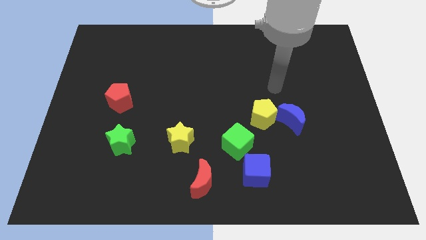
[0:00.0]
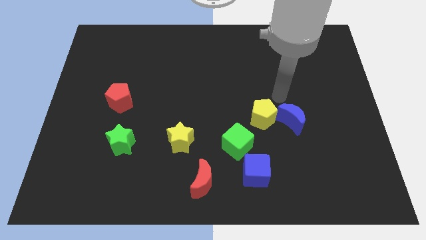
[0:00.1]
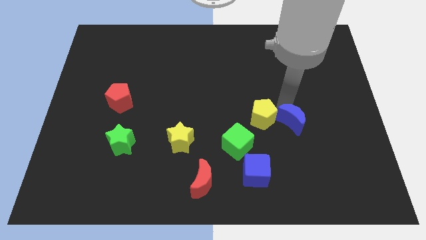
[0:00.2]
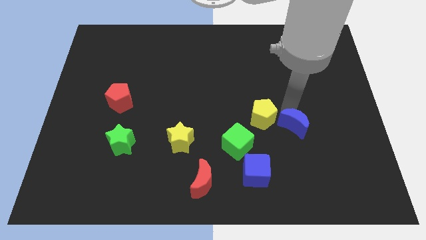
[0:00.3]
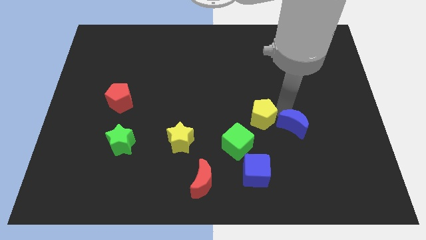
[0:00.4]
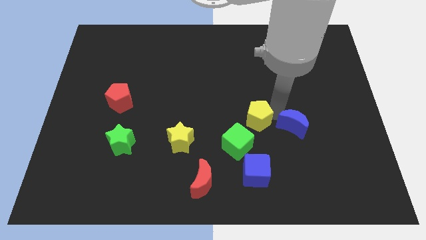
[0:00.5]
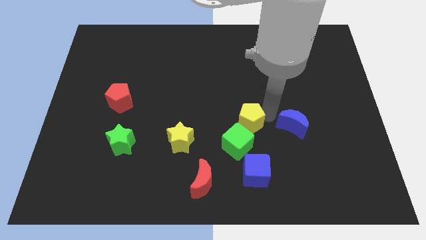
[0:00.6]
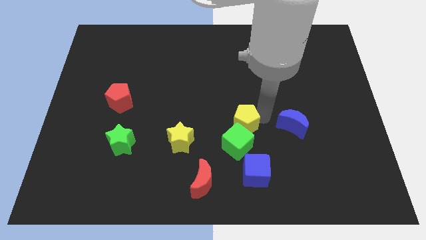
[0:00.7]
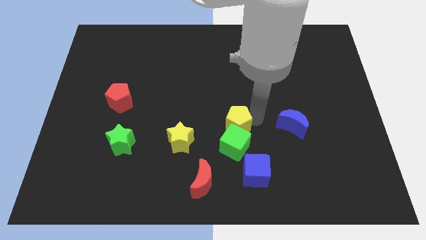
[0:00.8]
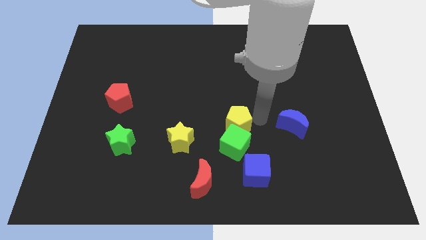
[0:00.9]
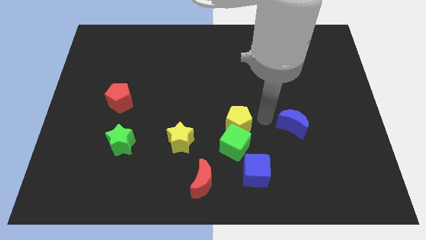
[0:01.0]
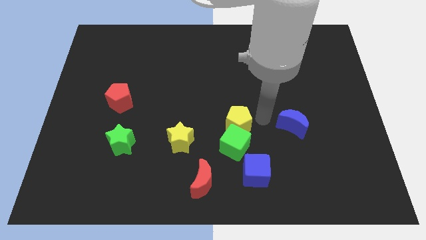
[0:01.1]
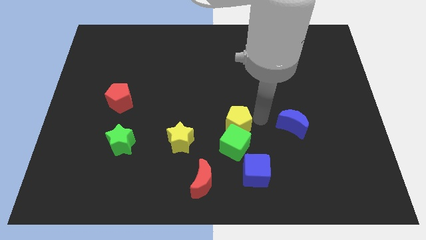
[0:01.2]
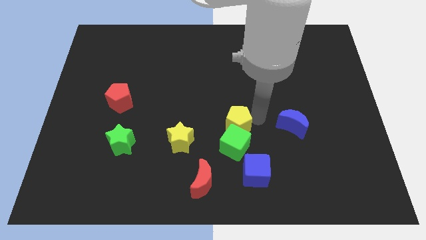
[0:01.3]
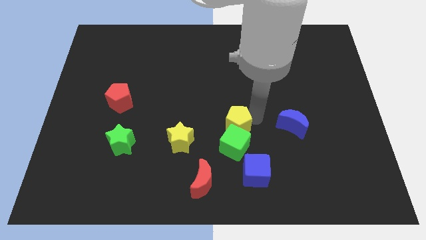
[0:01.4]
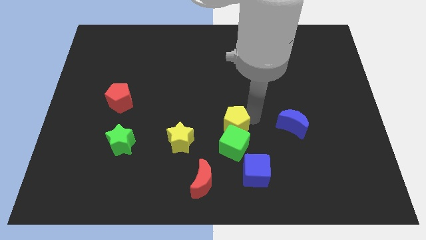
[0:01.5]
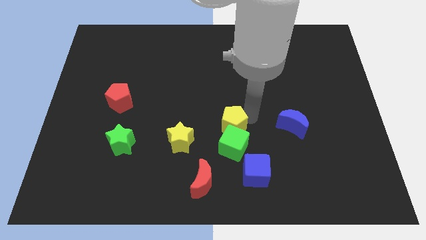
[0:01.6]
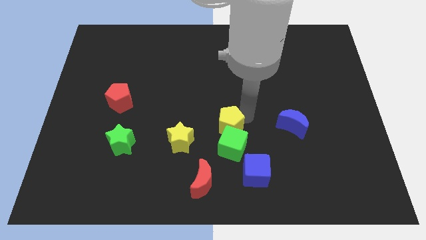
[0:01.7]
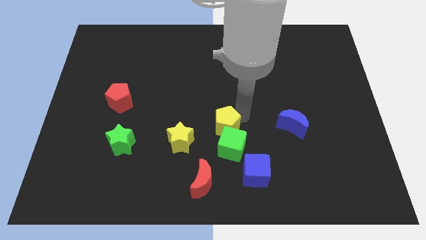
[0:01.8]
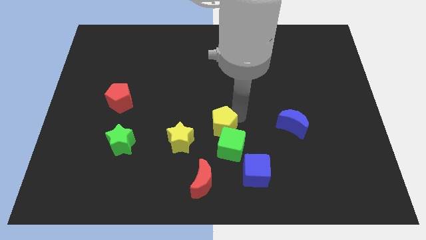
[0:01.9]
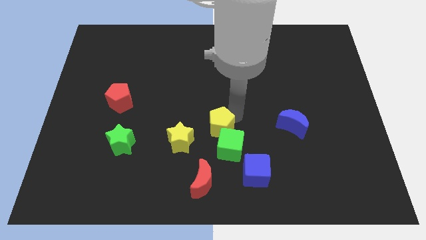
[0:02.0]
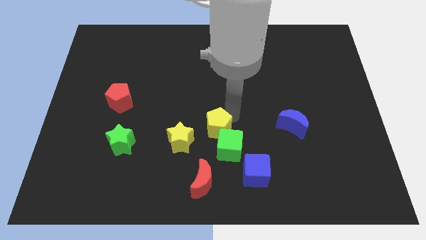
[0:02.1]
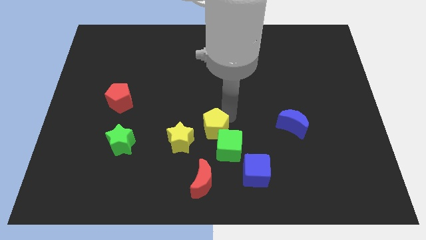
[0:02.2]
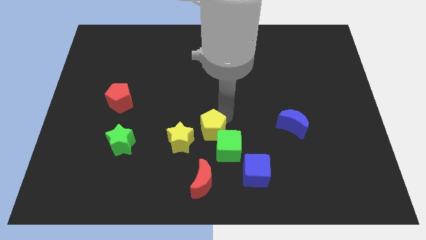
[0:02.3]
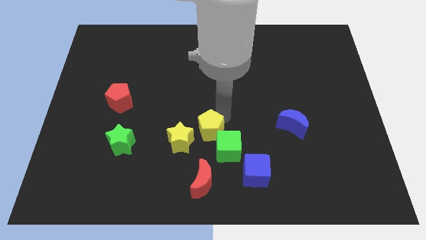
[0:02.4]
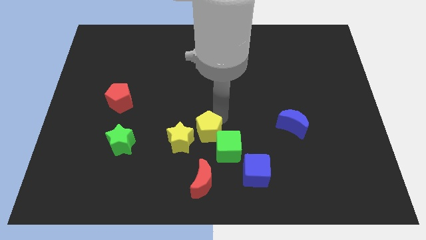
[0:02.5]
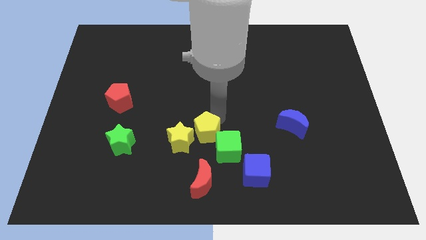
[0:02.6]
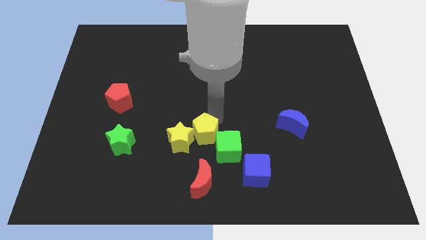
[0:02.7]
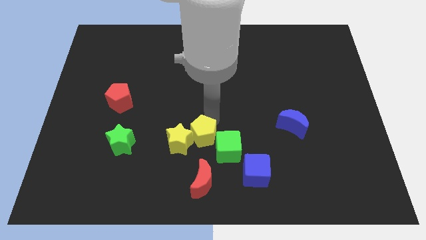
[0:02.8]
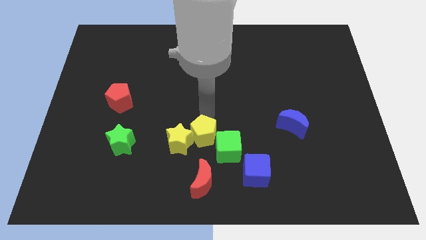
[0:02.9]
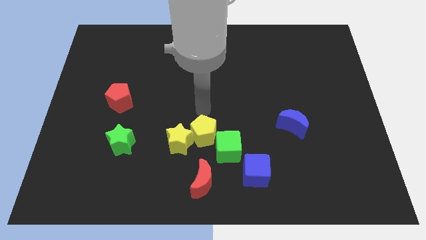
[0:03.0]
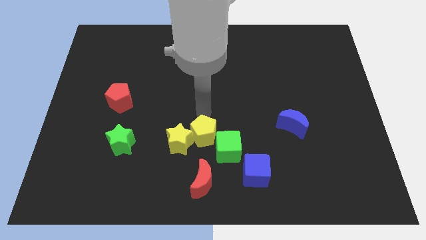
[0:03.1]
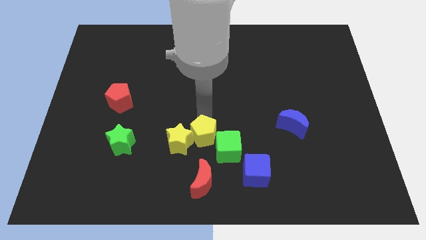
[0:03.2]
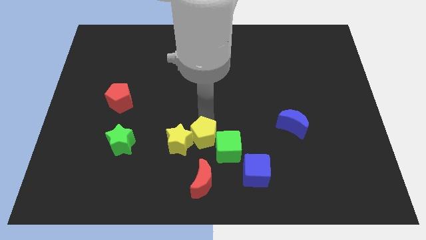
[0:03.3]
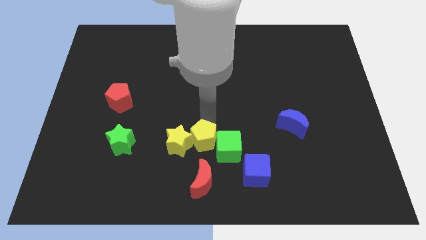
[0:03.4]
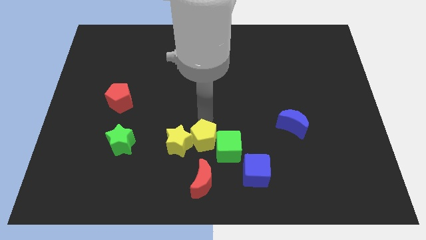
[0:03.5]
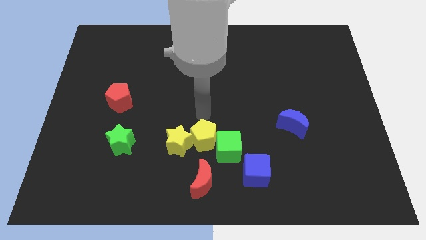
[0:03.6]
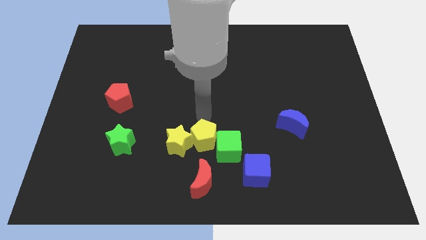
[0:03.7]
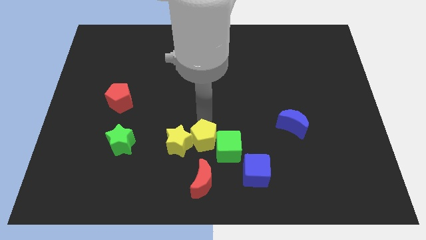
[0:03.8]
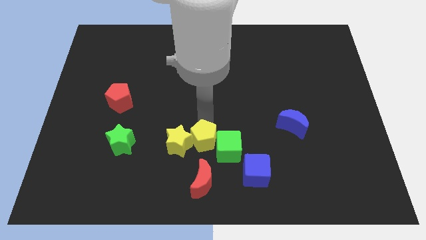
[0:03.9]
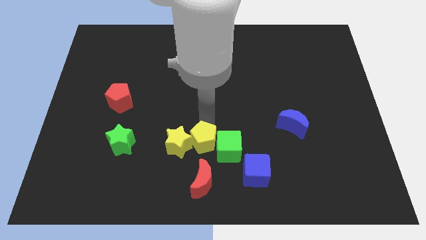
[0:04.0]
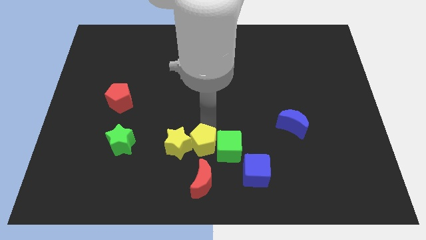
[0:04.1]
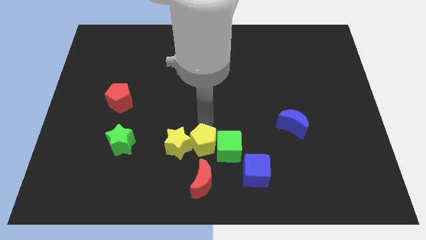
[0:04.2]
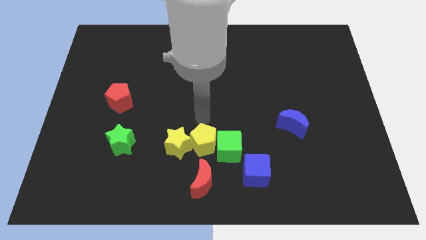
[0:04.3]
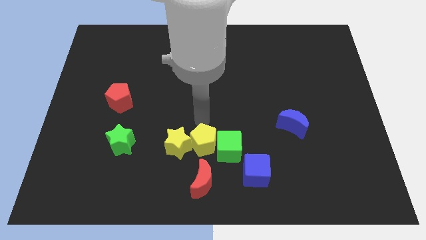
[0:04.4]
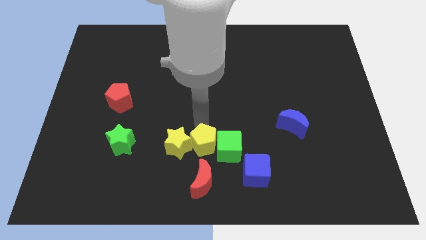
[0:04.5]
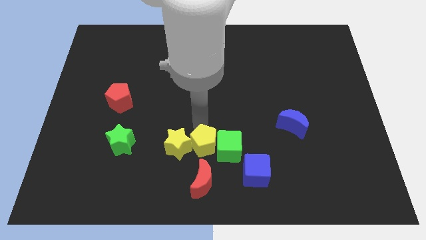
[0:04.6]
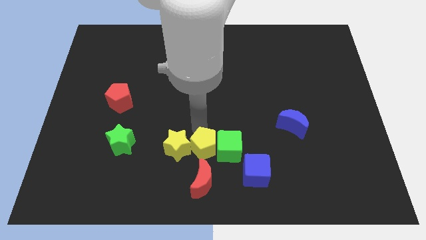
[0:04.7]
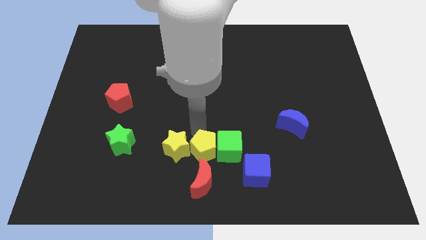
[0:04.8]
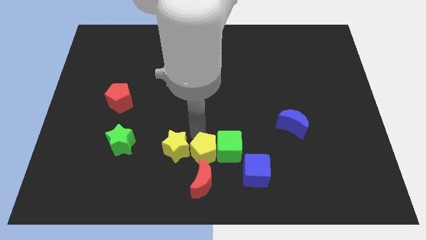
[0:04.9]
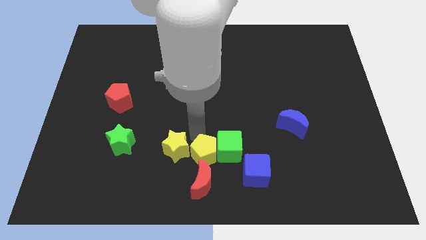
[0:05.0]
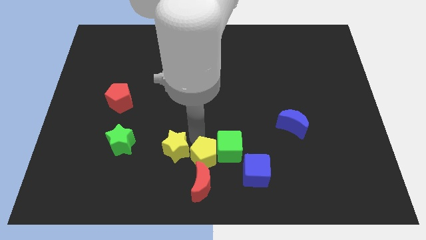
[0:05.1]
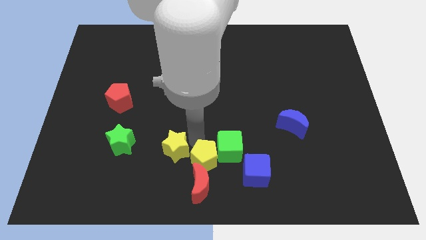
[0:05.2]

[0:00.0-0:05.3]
slide the yellow pentagon next to the red moon

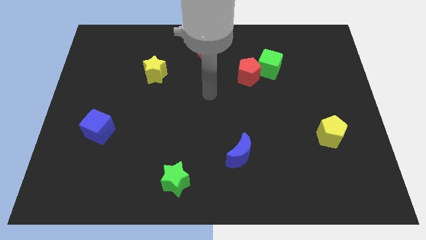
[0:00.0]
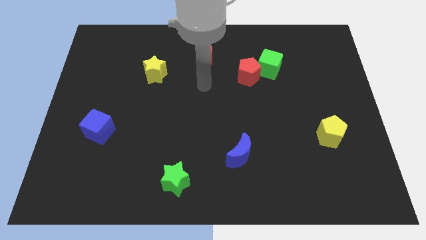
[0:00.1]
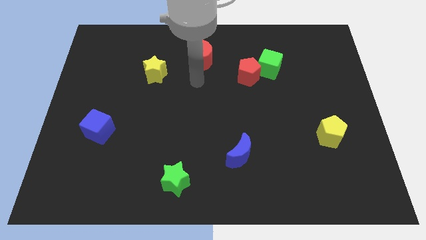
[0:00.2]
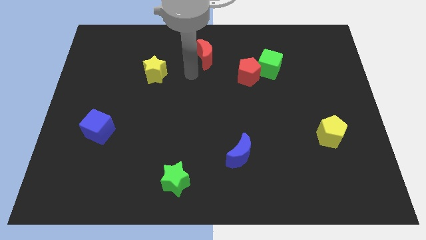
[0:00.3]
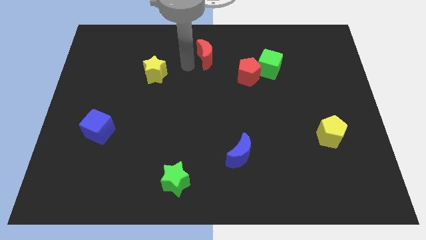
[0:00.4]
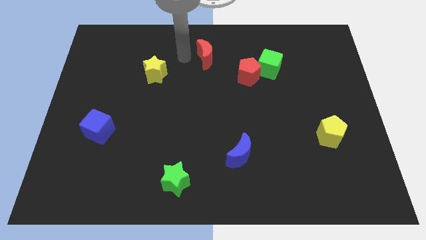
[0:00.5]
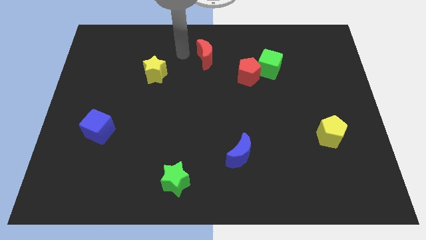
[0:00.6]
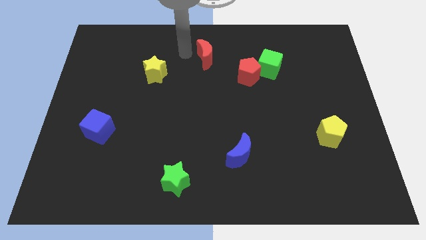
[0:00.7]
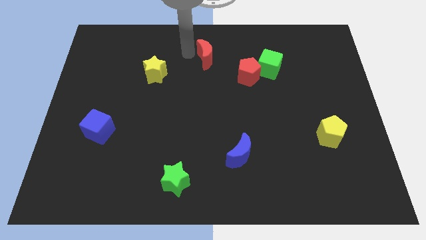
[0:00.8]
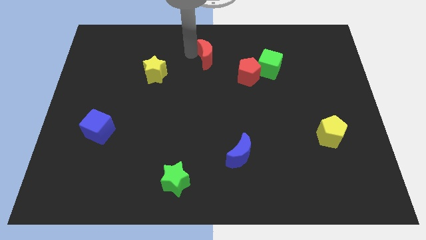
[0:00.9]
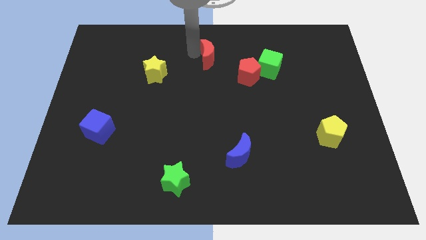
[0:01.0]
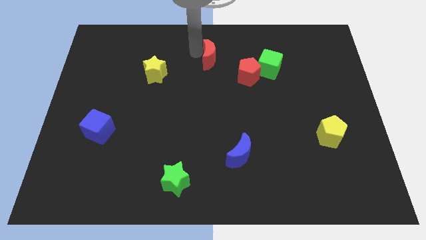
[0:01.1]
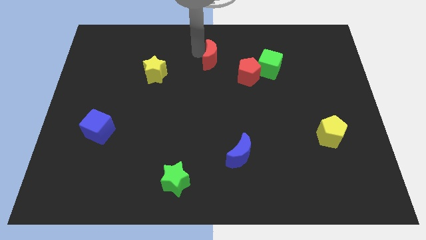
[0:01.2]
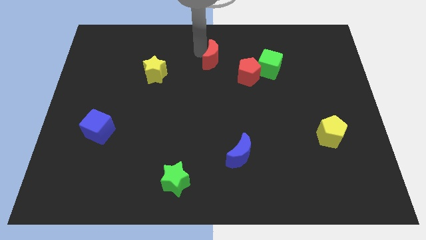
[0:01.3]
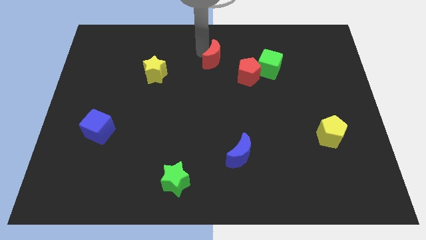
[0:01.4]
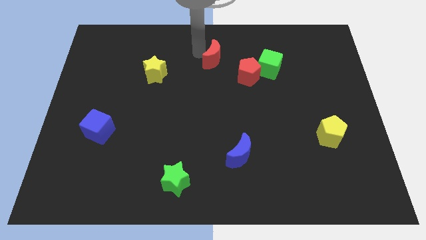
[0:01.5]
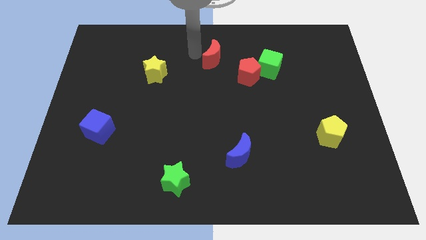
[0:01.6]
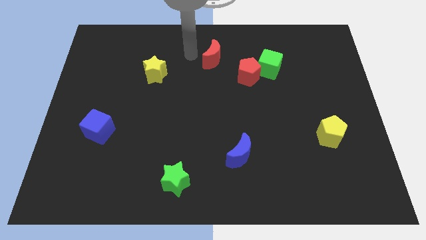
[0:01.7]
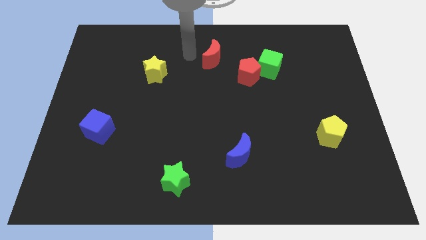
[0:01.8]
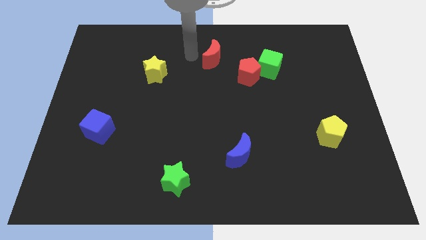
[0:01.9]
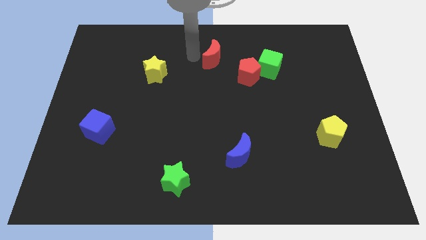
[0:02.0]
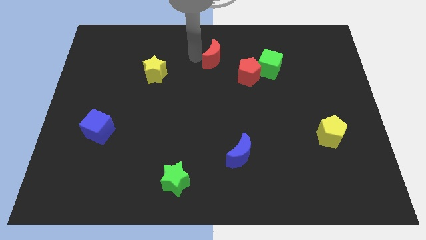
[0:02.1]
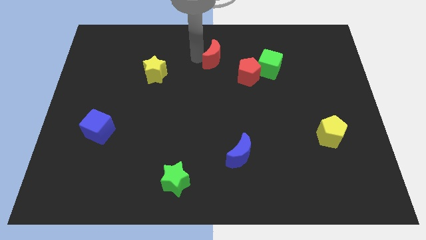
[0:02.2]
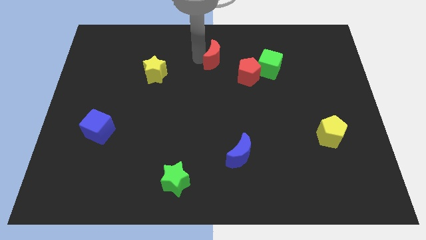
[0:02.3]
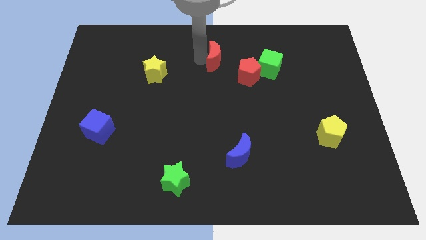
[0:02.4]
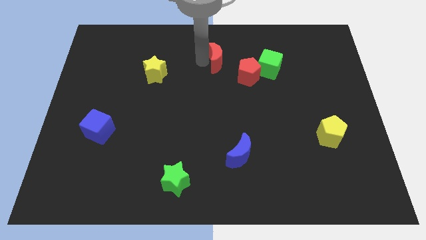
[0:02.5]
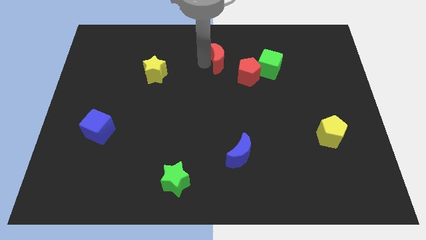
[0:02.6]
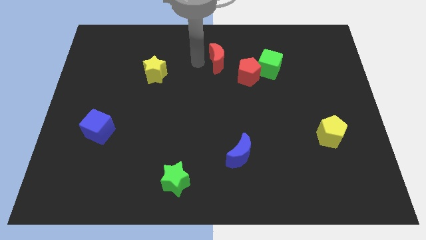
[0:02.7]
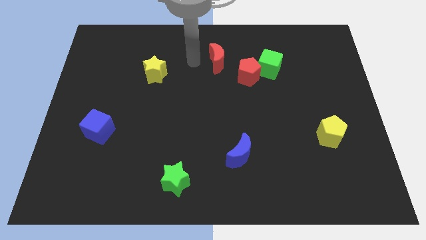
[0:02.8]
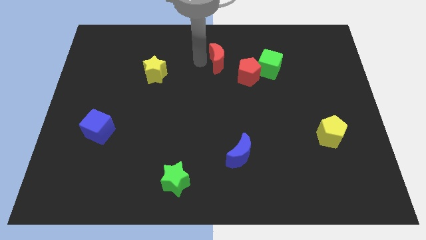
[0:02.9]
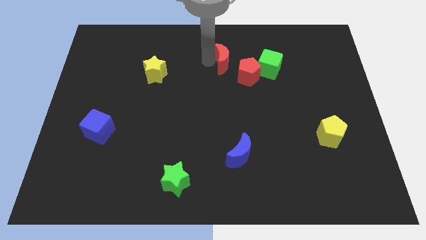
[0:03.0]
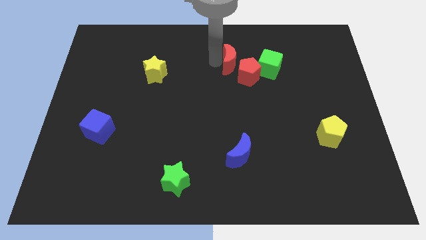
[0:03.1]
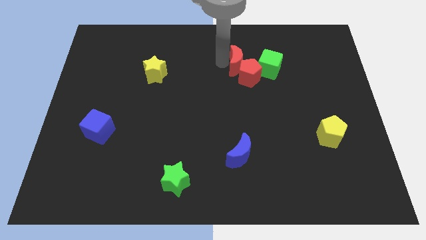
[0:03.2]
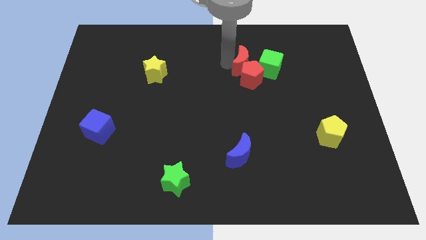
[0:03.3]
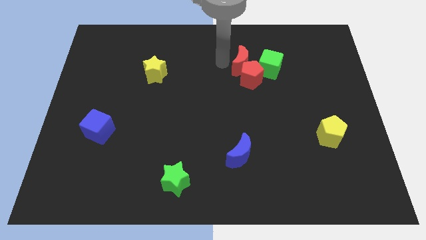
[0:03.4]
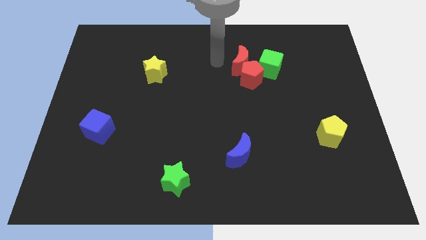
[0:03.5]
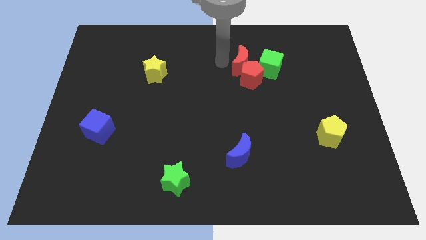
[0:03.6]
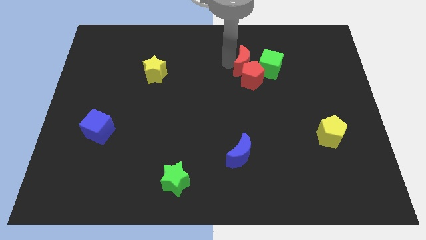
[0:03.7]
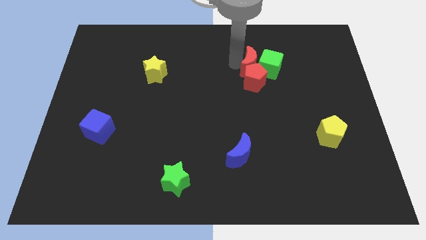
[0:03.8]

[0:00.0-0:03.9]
put the red moon next to the green cube
